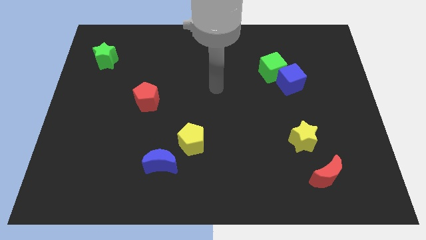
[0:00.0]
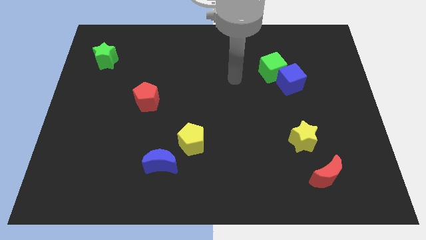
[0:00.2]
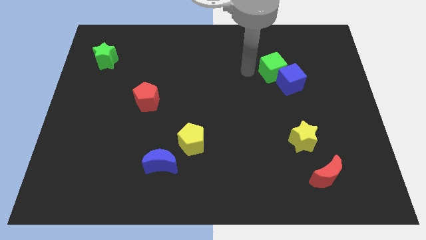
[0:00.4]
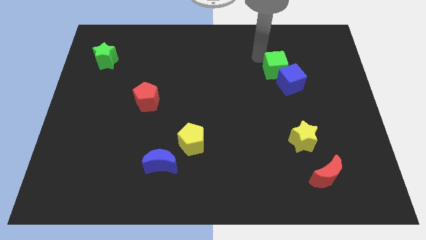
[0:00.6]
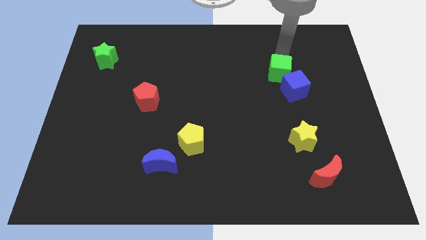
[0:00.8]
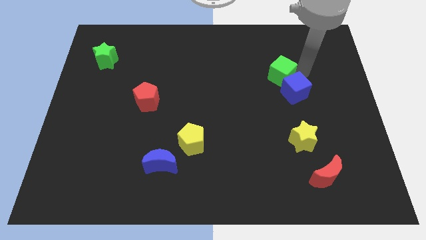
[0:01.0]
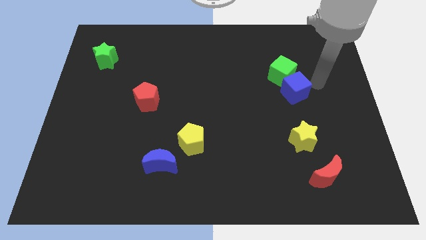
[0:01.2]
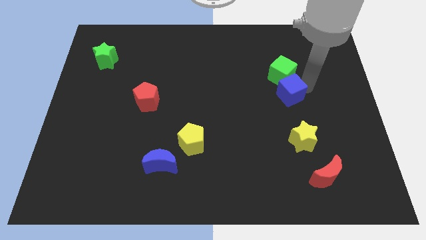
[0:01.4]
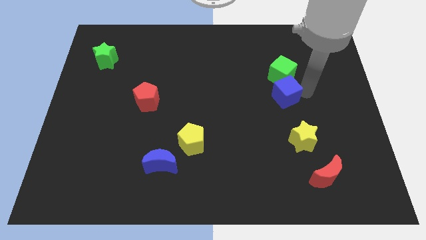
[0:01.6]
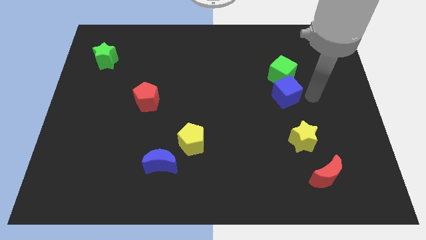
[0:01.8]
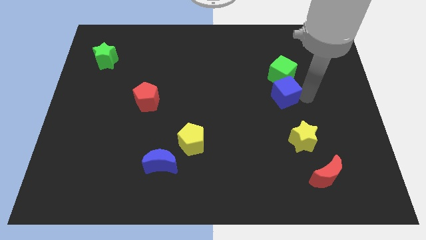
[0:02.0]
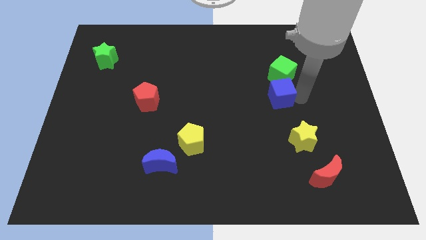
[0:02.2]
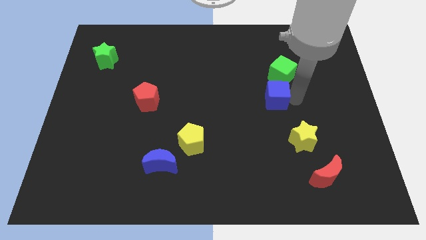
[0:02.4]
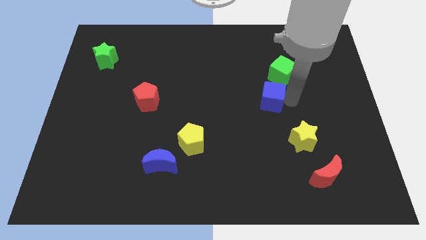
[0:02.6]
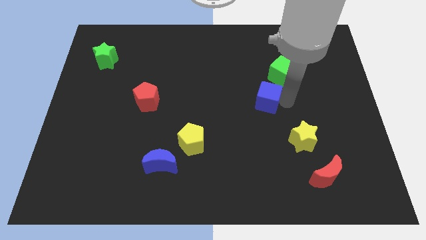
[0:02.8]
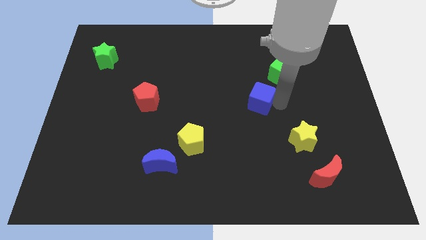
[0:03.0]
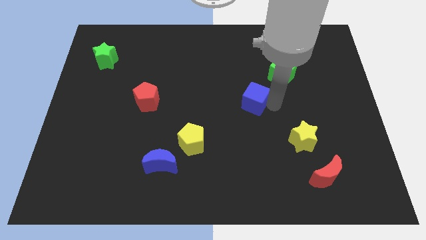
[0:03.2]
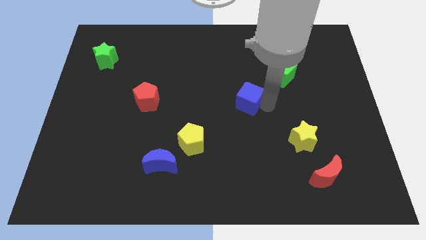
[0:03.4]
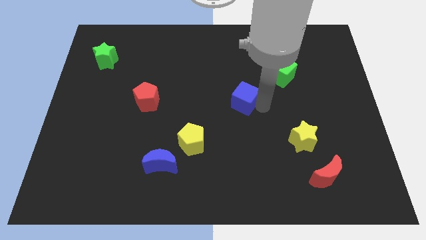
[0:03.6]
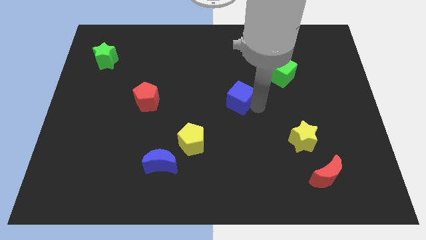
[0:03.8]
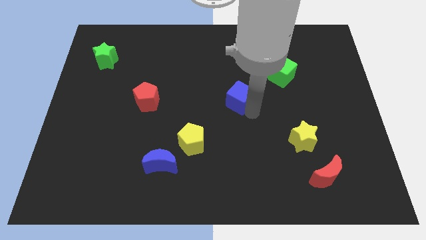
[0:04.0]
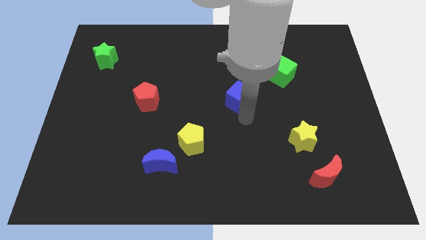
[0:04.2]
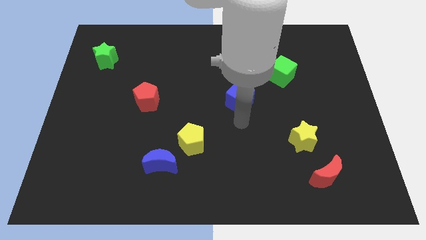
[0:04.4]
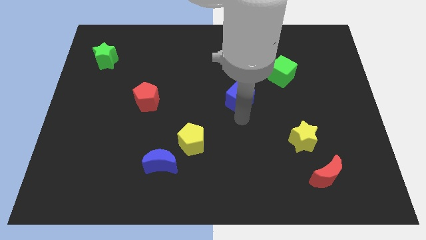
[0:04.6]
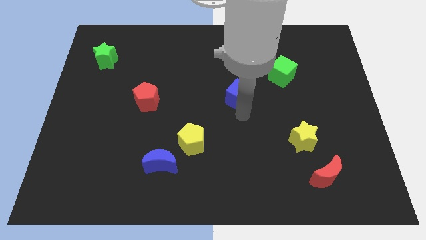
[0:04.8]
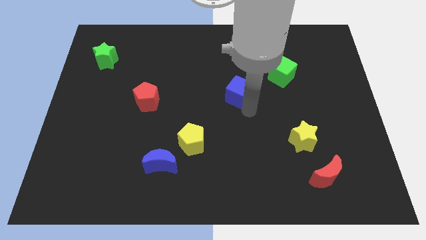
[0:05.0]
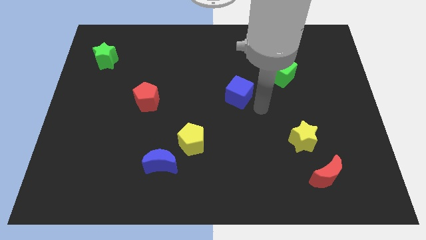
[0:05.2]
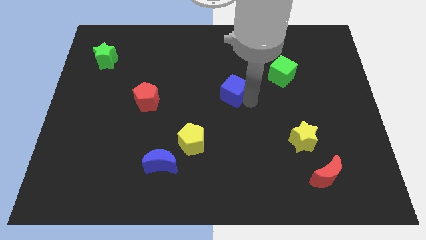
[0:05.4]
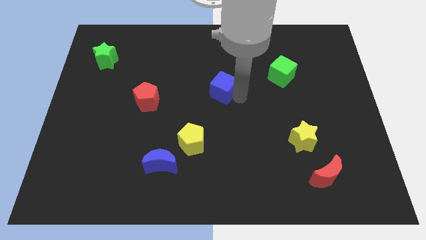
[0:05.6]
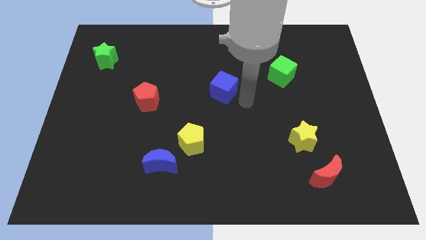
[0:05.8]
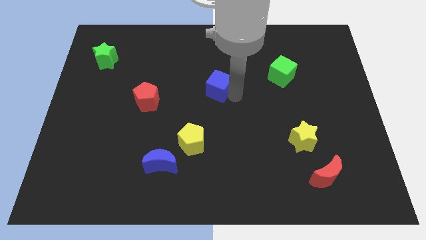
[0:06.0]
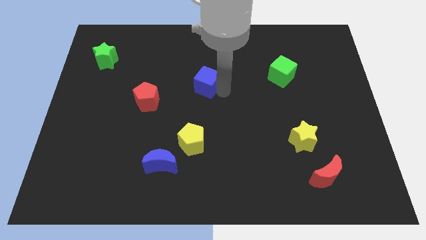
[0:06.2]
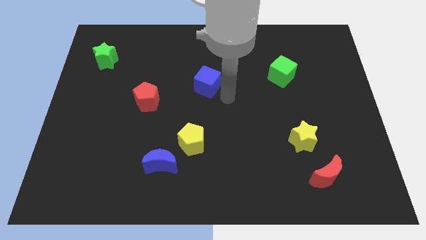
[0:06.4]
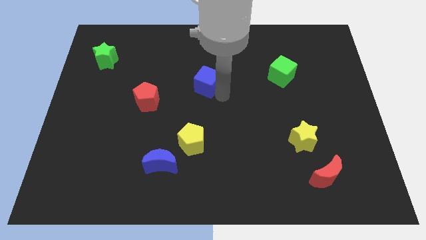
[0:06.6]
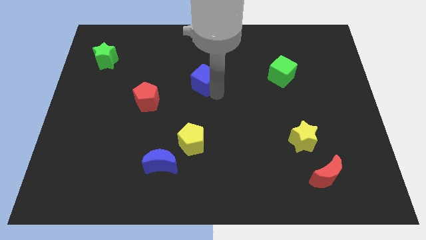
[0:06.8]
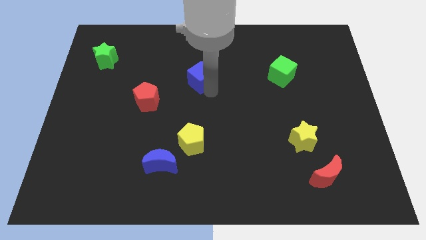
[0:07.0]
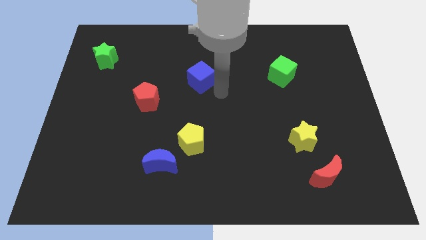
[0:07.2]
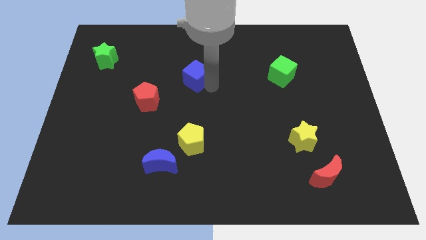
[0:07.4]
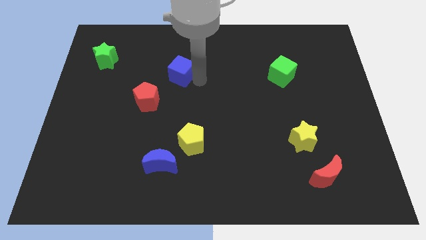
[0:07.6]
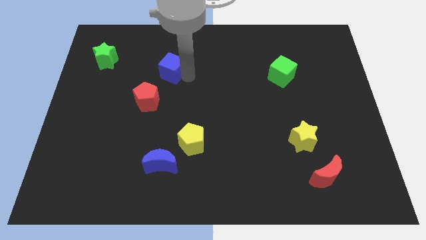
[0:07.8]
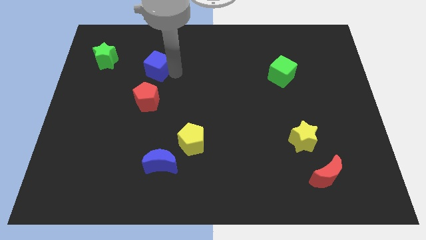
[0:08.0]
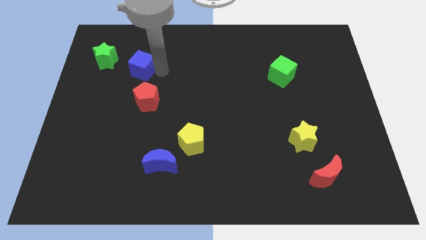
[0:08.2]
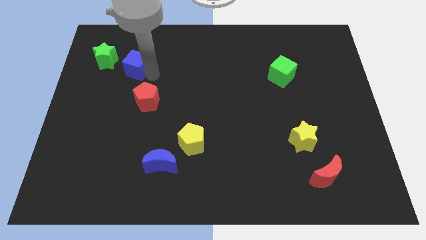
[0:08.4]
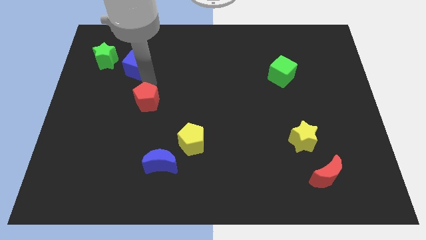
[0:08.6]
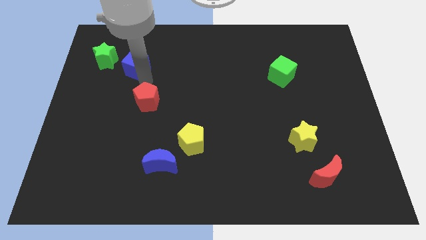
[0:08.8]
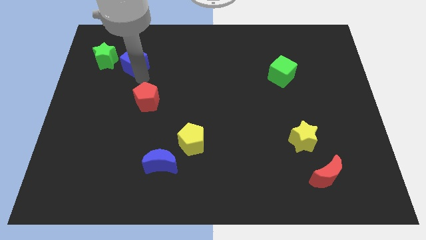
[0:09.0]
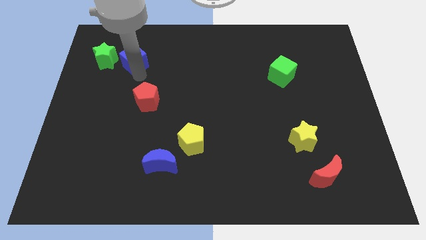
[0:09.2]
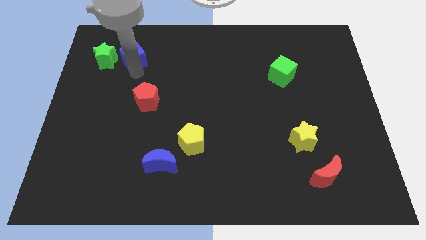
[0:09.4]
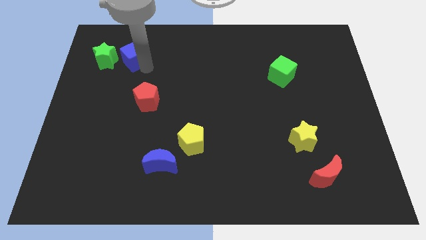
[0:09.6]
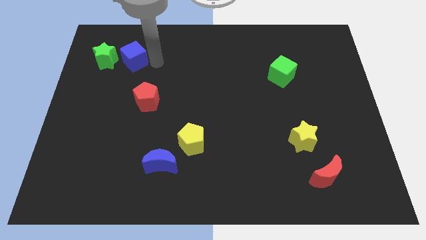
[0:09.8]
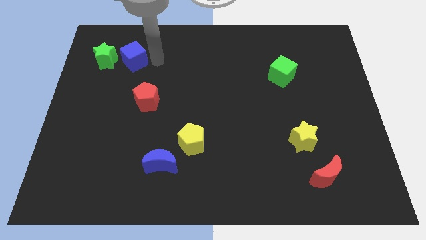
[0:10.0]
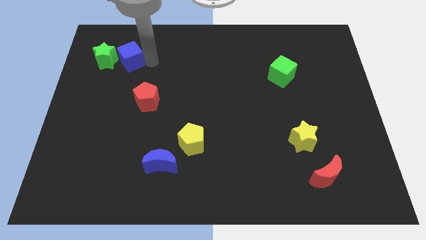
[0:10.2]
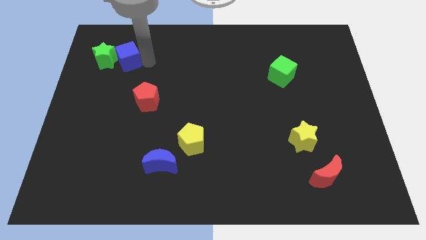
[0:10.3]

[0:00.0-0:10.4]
push the blue cube close to the green star

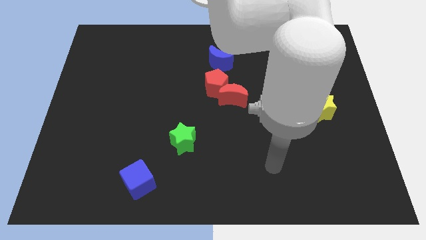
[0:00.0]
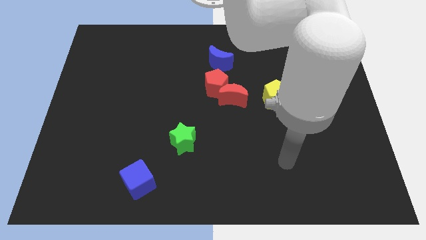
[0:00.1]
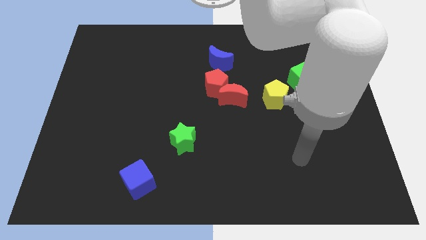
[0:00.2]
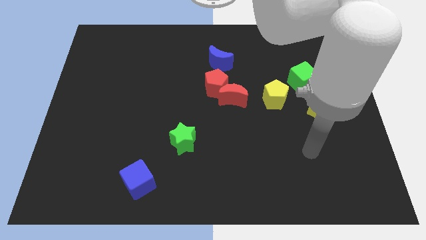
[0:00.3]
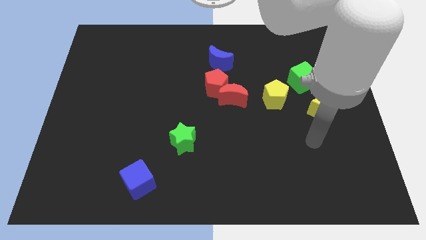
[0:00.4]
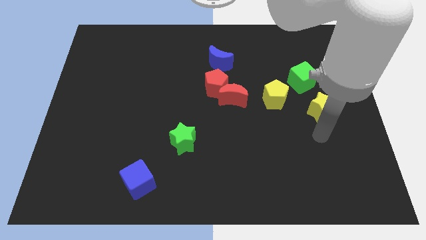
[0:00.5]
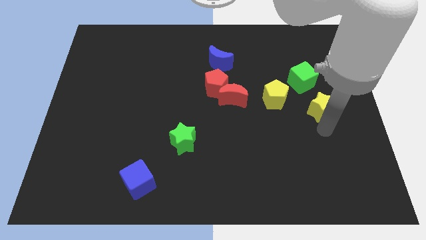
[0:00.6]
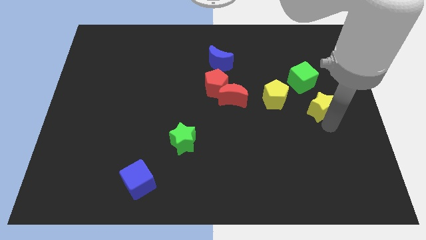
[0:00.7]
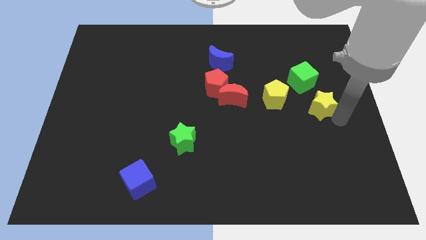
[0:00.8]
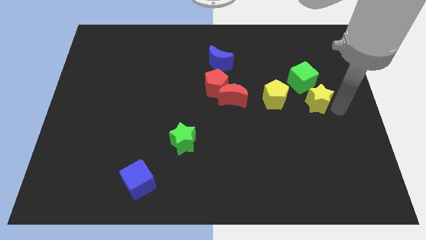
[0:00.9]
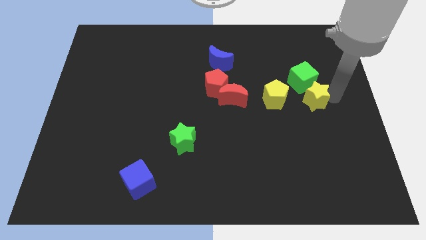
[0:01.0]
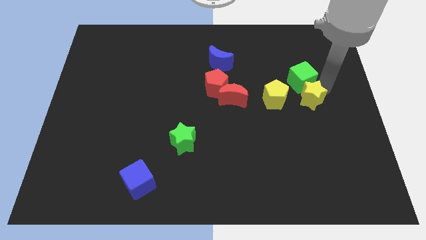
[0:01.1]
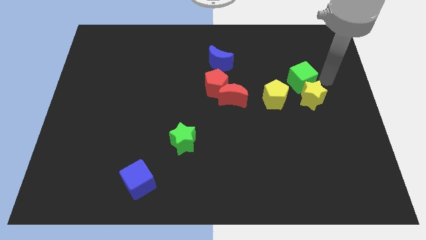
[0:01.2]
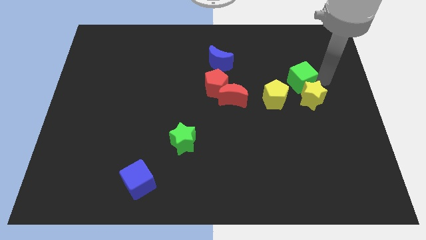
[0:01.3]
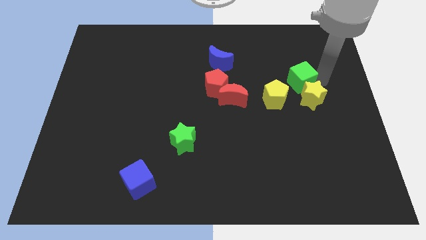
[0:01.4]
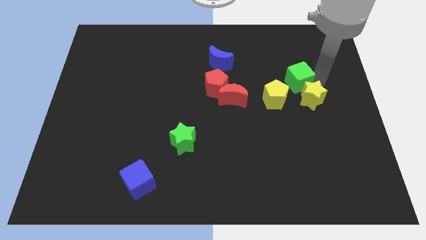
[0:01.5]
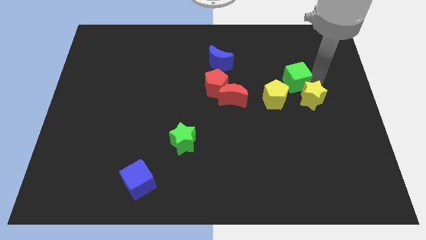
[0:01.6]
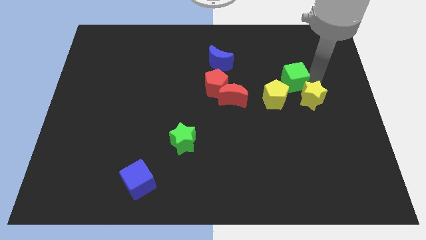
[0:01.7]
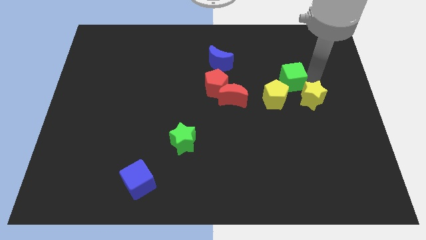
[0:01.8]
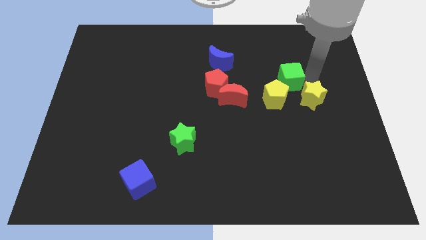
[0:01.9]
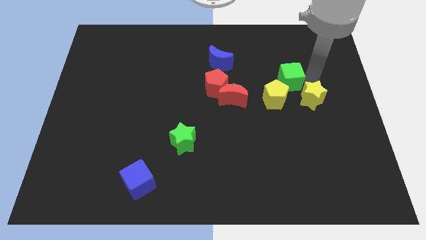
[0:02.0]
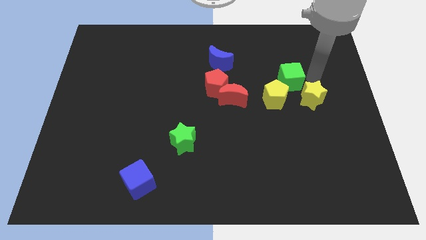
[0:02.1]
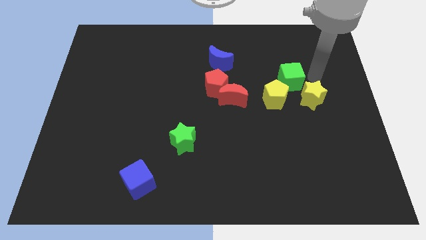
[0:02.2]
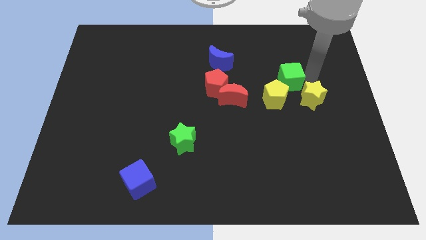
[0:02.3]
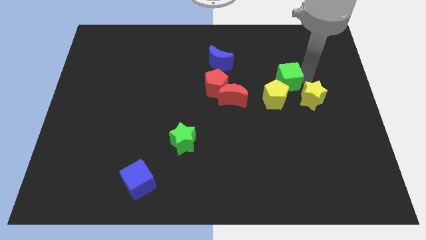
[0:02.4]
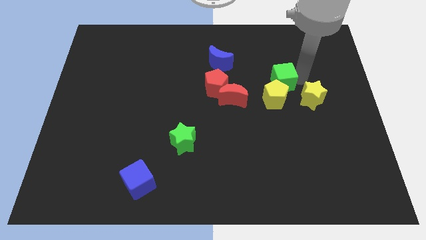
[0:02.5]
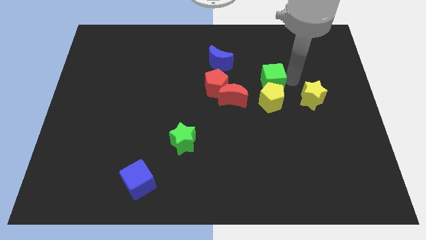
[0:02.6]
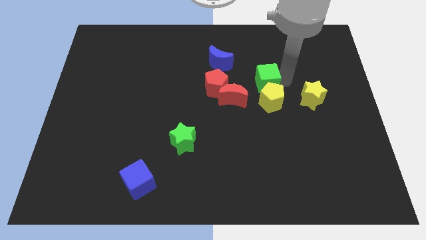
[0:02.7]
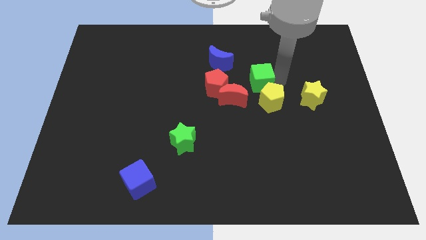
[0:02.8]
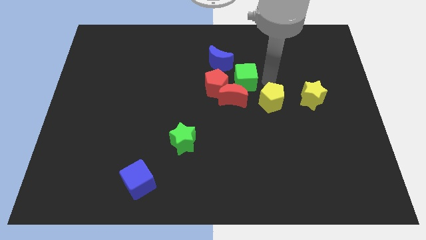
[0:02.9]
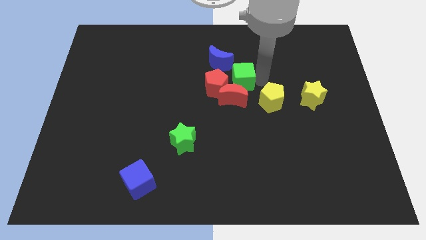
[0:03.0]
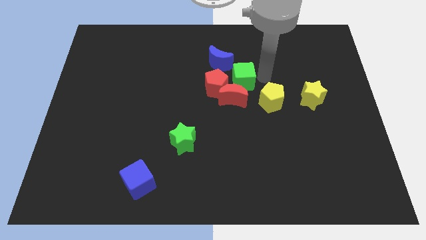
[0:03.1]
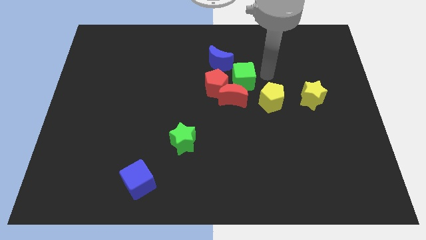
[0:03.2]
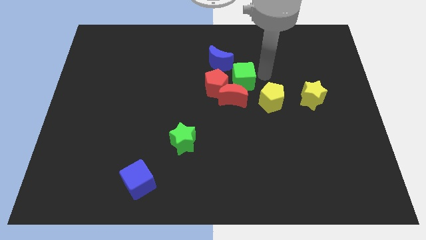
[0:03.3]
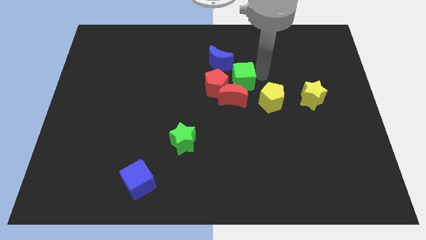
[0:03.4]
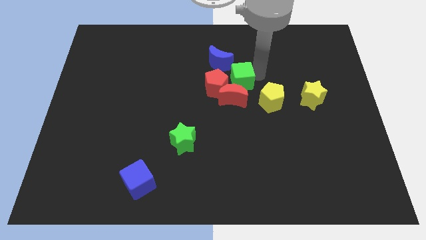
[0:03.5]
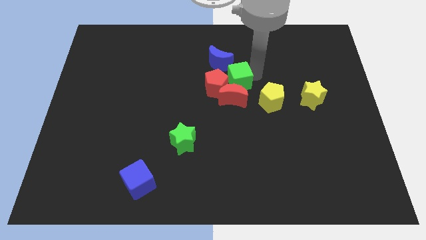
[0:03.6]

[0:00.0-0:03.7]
push the green cube to the red pentagon
